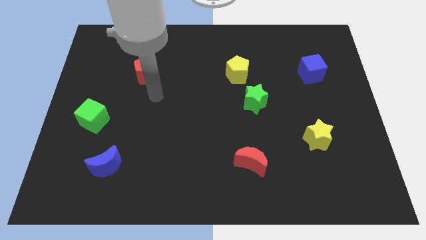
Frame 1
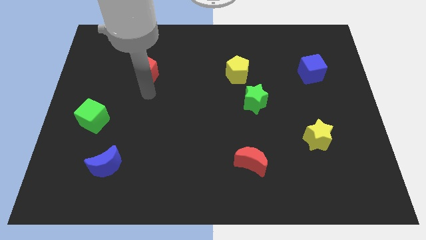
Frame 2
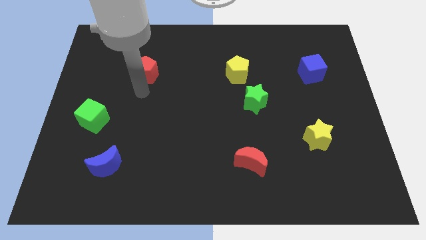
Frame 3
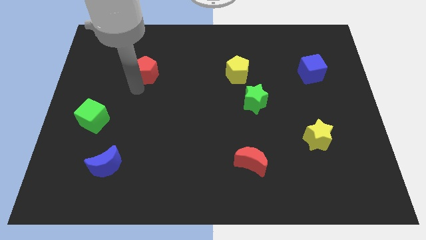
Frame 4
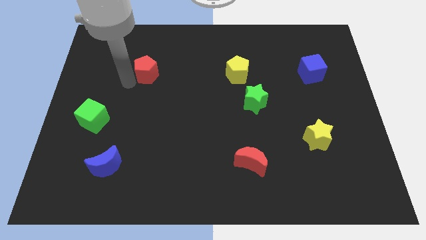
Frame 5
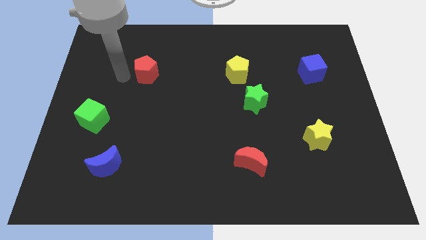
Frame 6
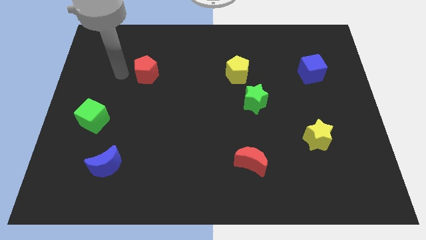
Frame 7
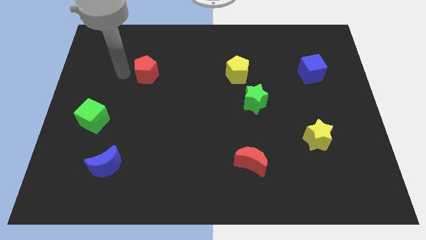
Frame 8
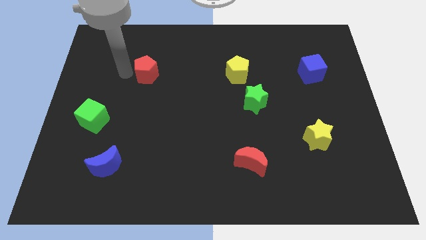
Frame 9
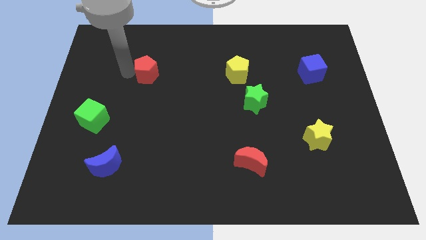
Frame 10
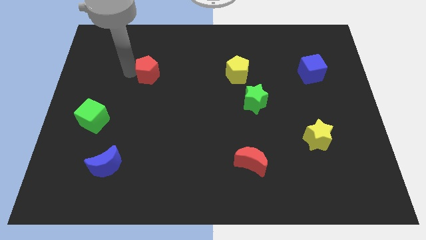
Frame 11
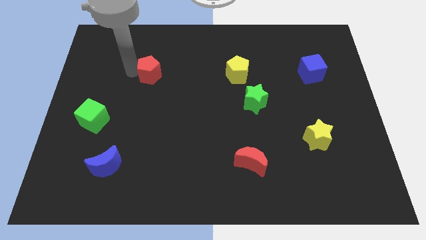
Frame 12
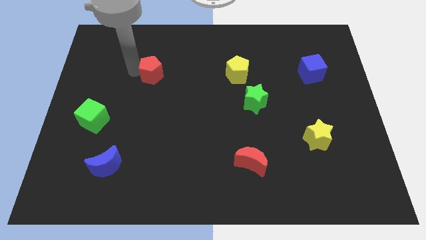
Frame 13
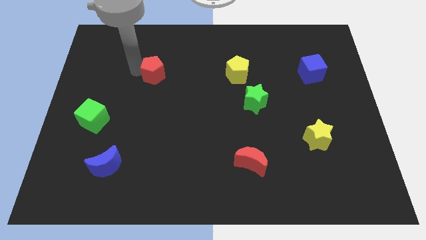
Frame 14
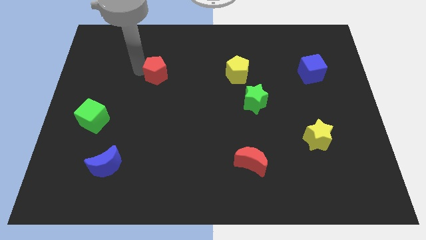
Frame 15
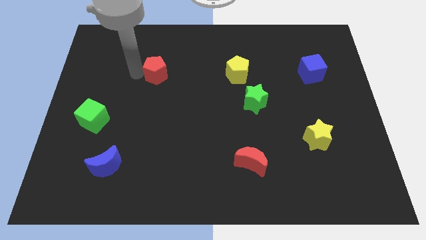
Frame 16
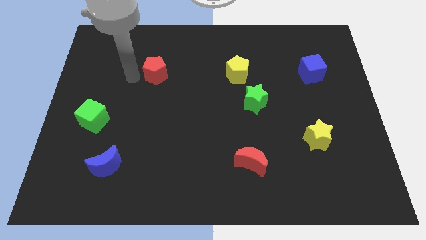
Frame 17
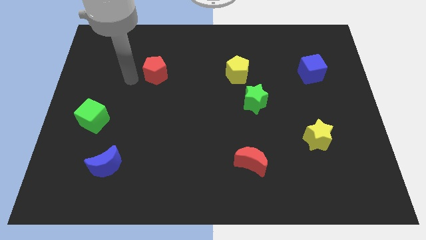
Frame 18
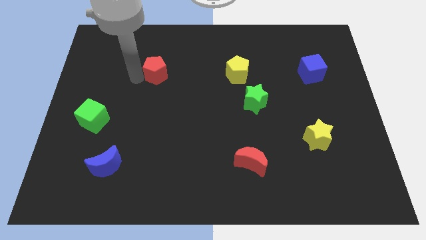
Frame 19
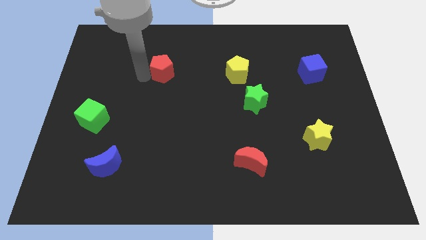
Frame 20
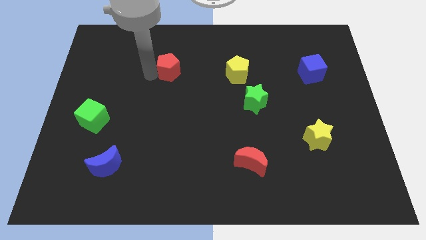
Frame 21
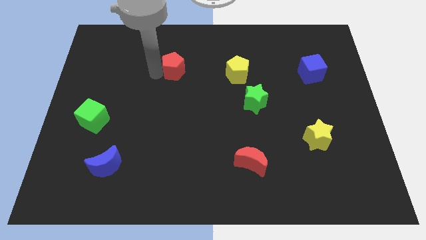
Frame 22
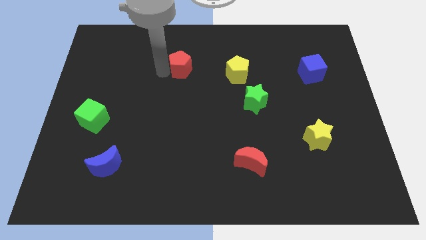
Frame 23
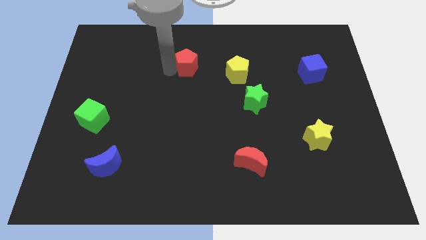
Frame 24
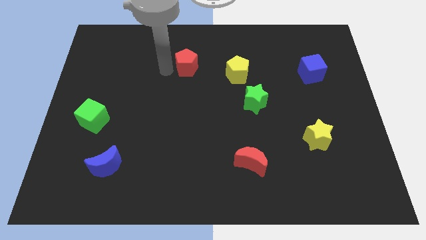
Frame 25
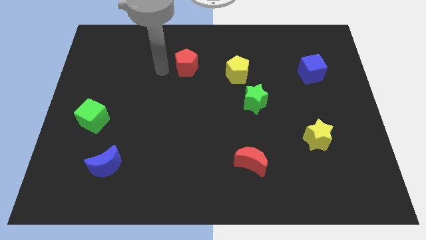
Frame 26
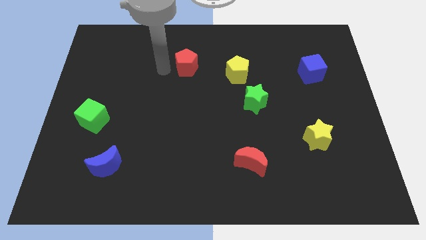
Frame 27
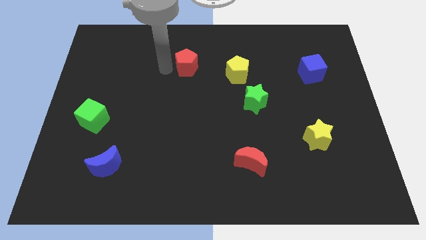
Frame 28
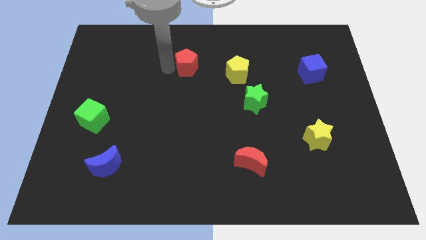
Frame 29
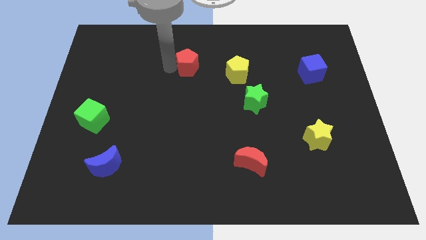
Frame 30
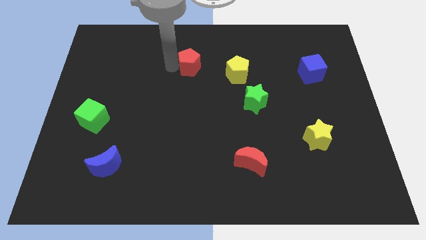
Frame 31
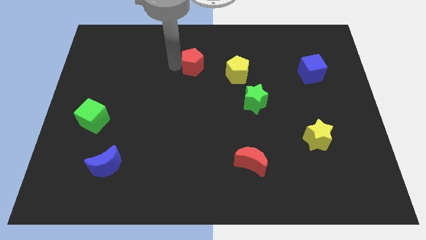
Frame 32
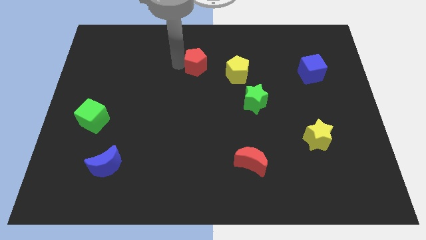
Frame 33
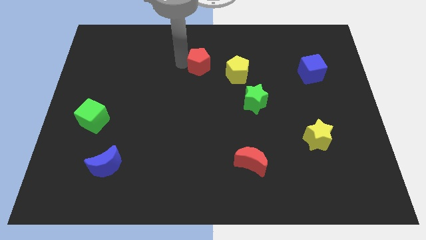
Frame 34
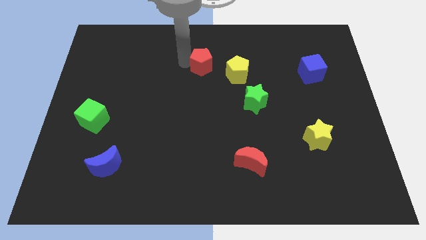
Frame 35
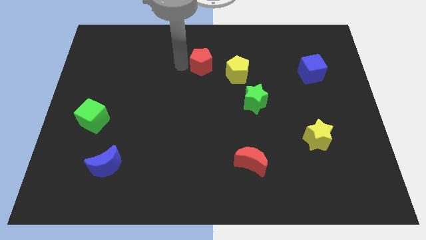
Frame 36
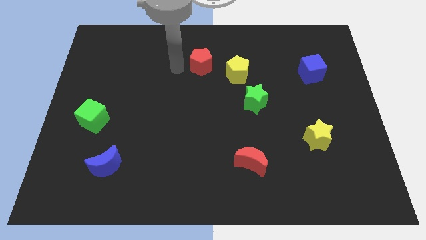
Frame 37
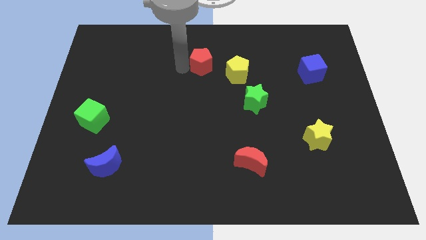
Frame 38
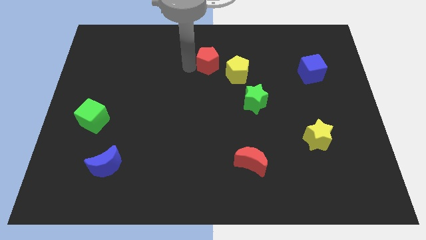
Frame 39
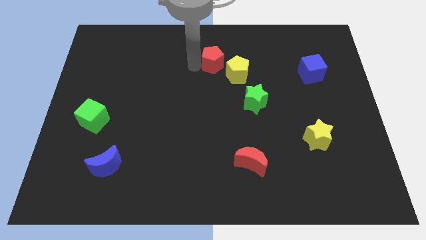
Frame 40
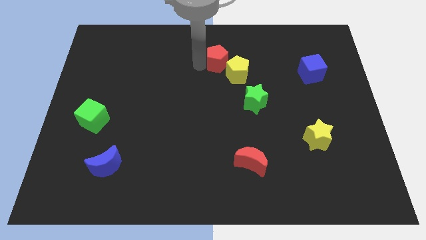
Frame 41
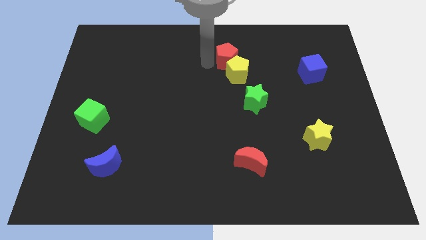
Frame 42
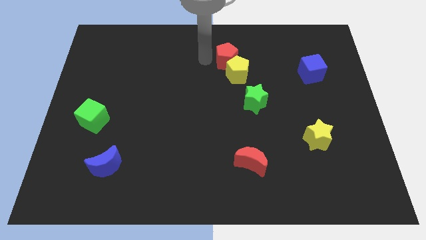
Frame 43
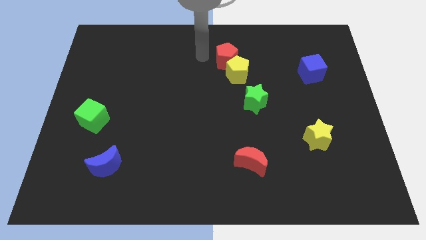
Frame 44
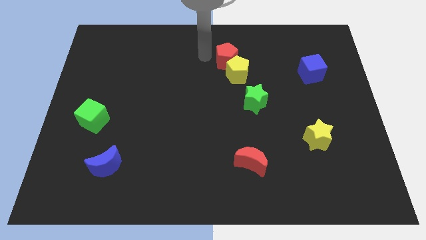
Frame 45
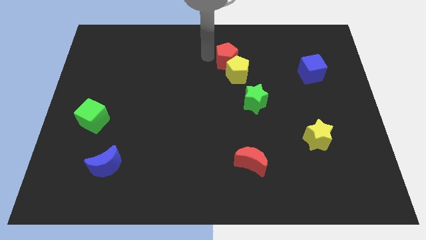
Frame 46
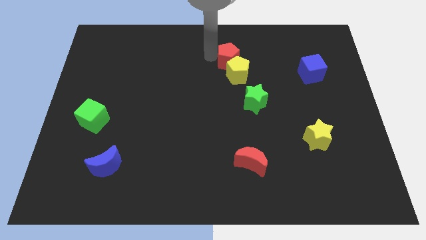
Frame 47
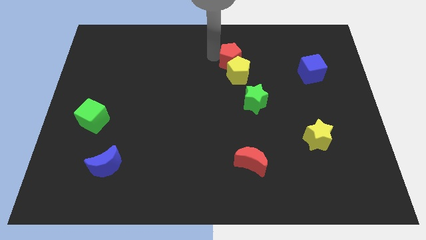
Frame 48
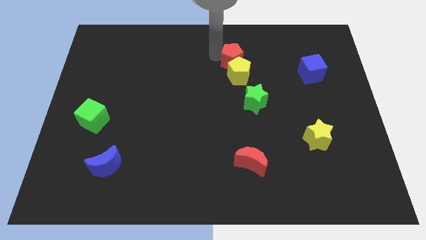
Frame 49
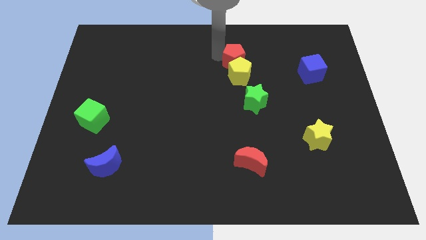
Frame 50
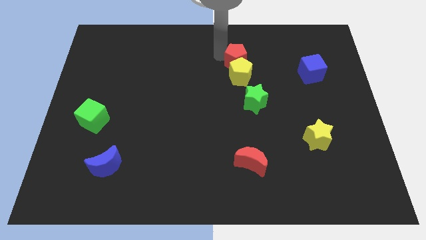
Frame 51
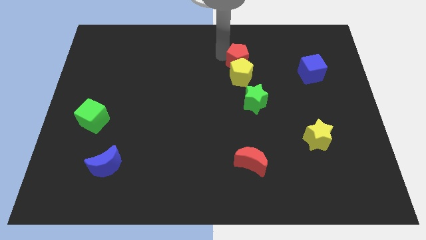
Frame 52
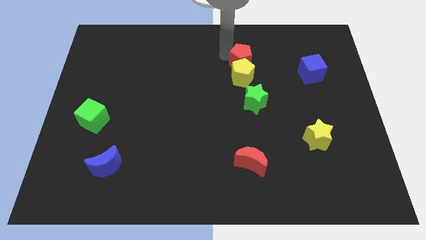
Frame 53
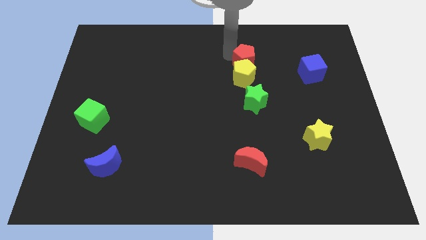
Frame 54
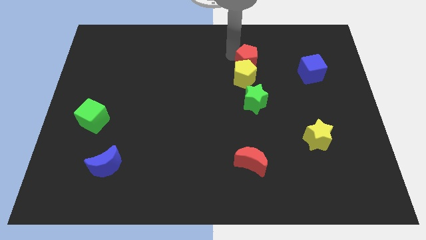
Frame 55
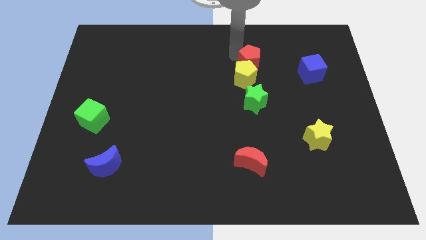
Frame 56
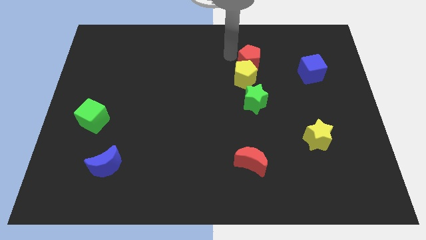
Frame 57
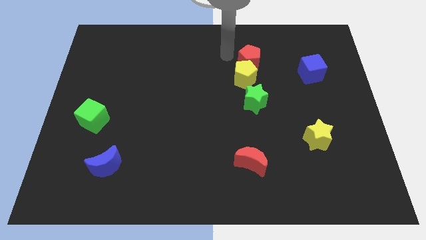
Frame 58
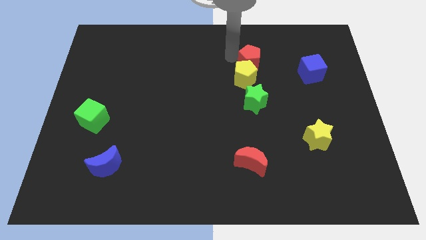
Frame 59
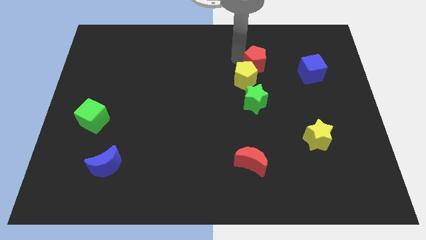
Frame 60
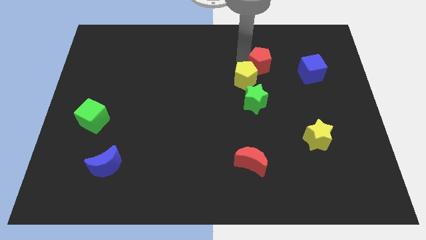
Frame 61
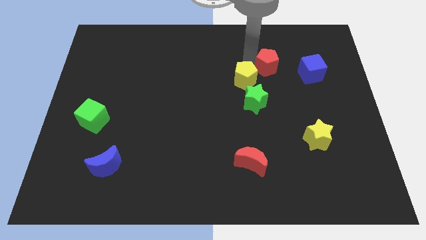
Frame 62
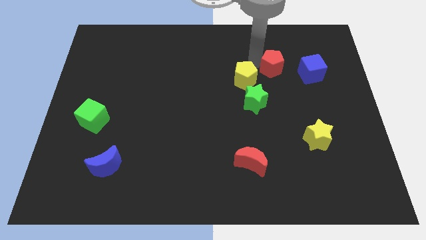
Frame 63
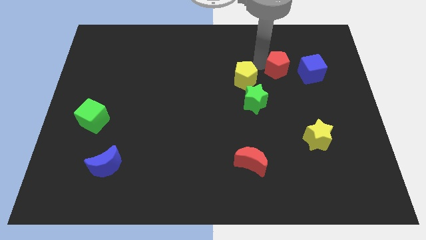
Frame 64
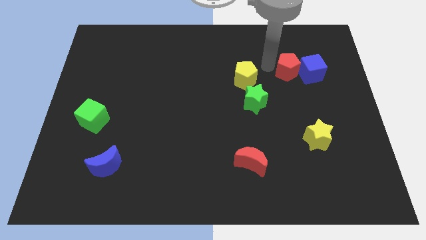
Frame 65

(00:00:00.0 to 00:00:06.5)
slide the red pentagon close to the blue cube
